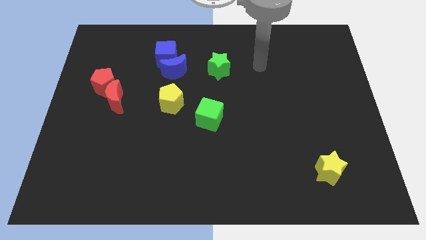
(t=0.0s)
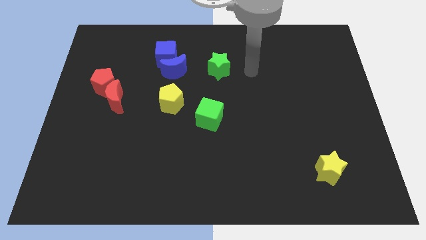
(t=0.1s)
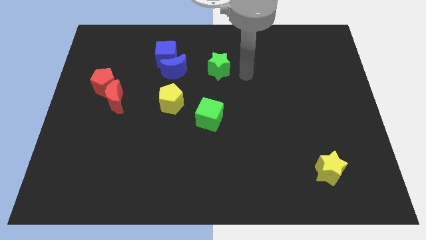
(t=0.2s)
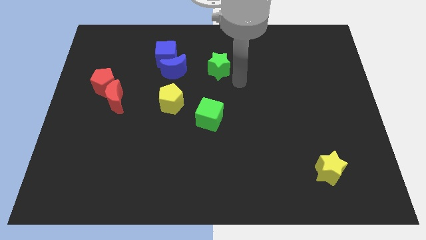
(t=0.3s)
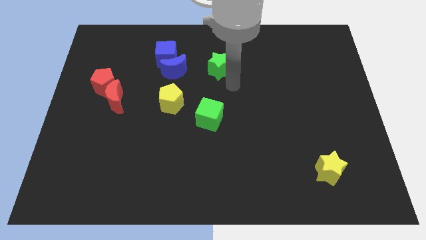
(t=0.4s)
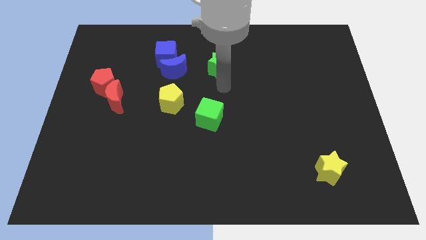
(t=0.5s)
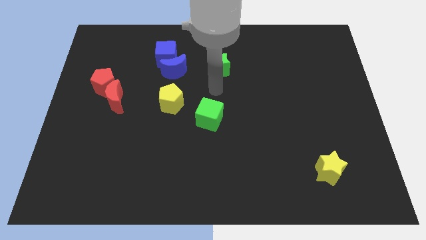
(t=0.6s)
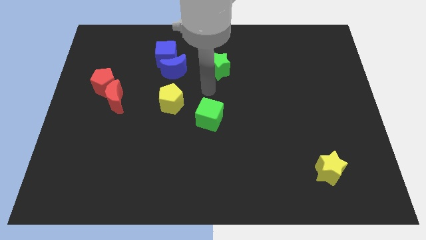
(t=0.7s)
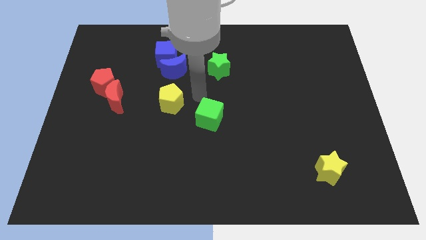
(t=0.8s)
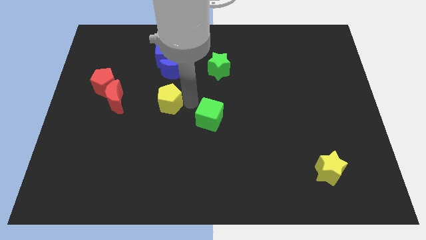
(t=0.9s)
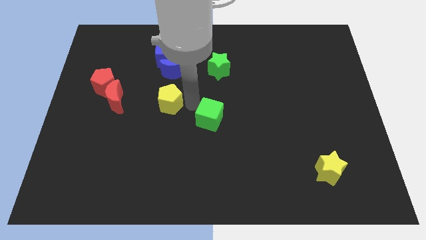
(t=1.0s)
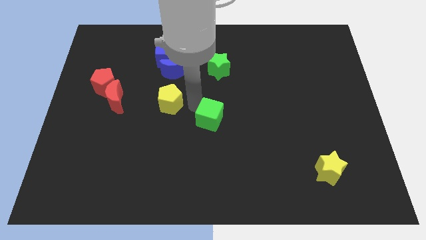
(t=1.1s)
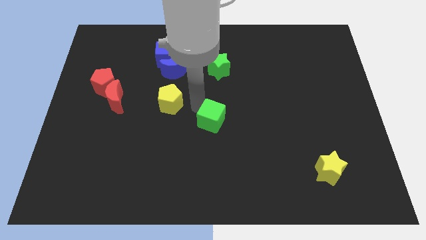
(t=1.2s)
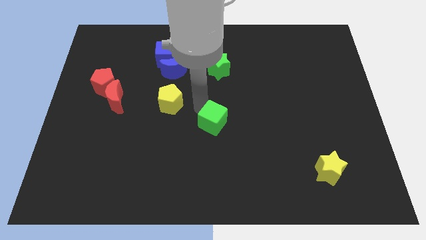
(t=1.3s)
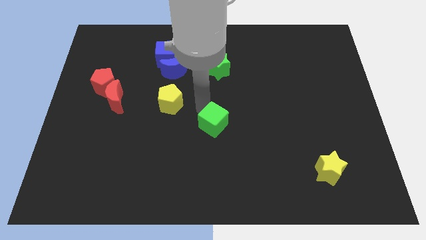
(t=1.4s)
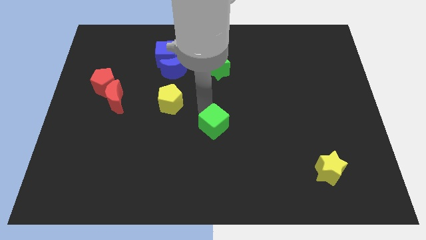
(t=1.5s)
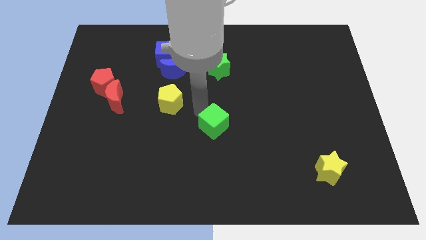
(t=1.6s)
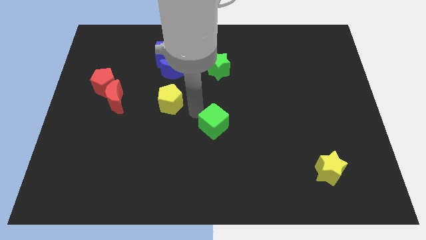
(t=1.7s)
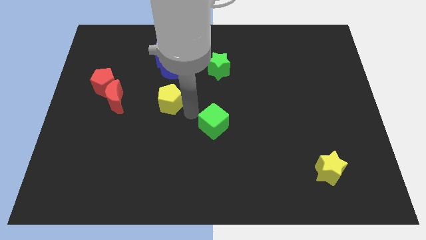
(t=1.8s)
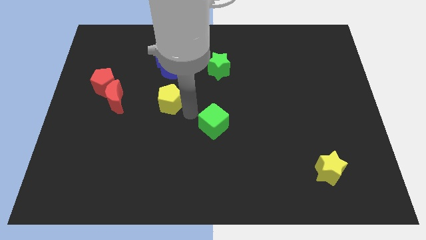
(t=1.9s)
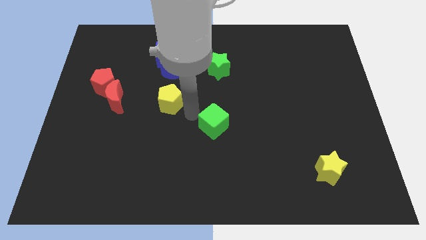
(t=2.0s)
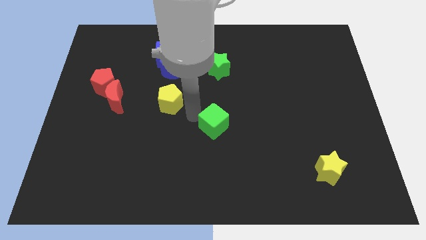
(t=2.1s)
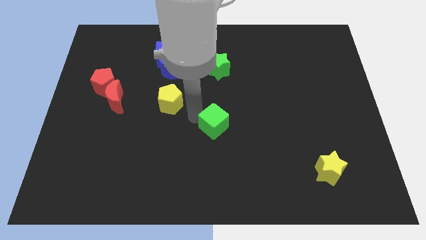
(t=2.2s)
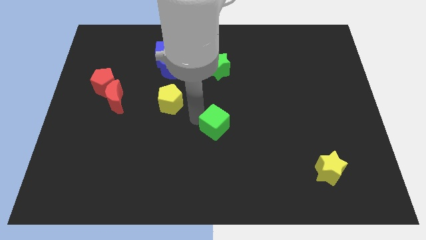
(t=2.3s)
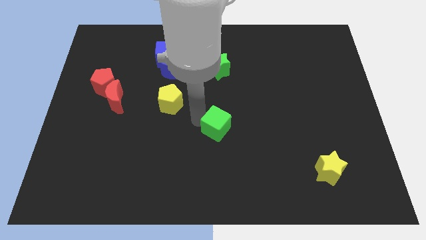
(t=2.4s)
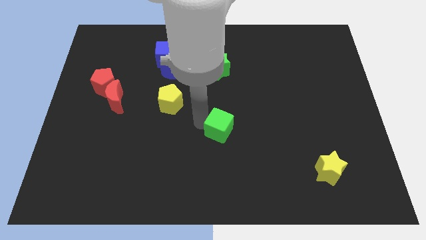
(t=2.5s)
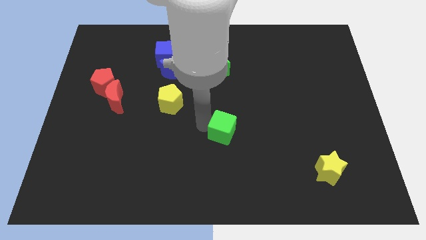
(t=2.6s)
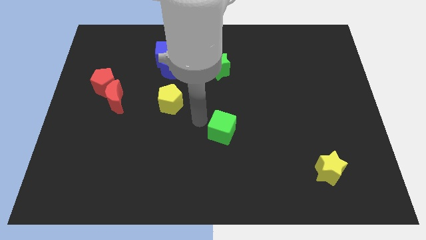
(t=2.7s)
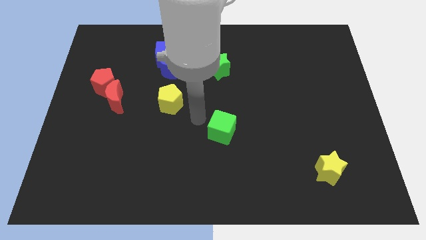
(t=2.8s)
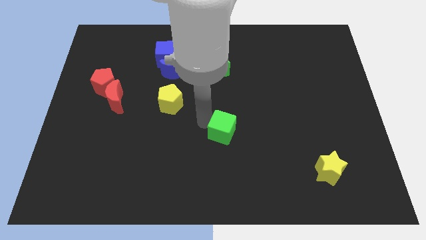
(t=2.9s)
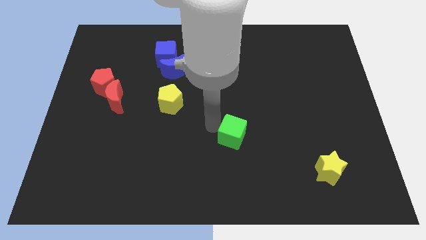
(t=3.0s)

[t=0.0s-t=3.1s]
slightly push the green cube downwards and then to the right

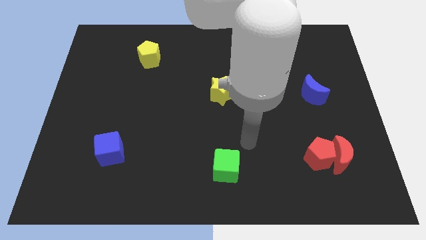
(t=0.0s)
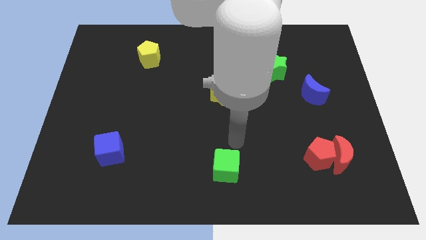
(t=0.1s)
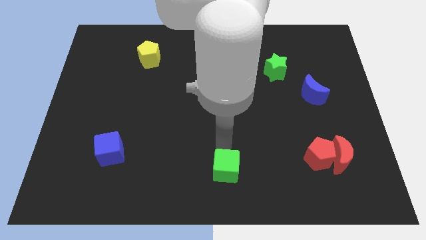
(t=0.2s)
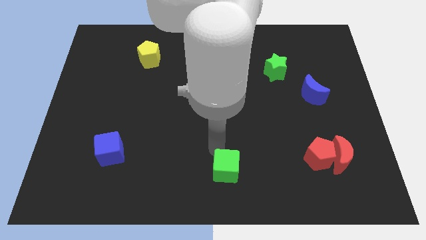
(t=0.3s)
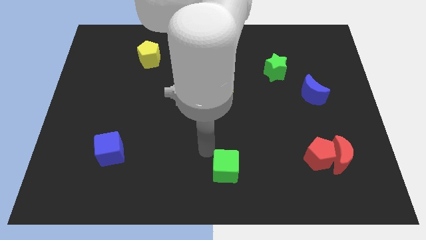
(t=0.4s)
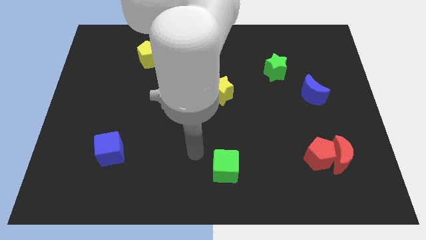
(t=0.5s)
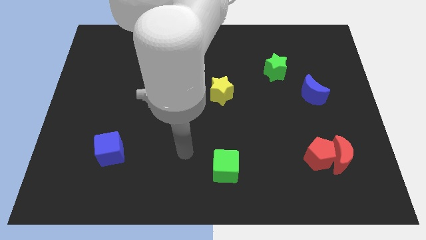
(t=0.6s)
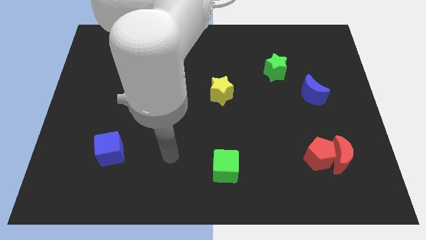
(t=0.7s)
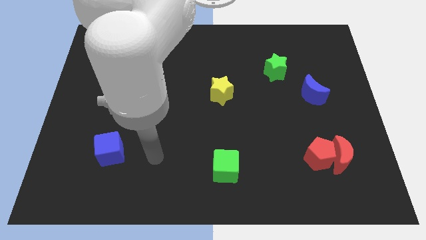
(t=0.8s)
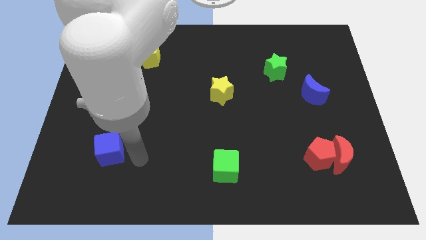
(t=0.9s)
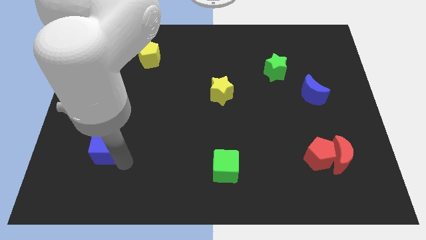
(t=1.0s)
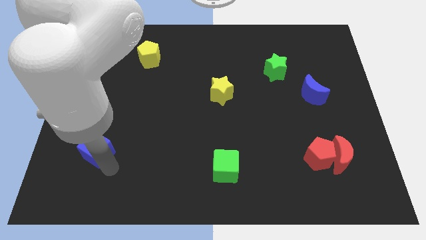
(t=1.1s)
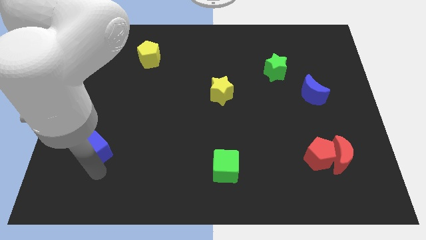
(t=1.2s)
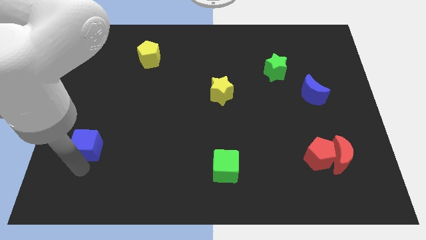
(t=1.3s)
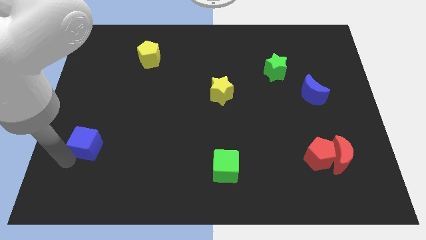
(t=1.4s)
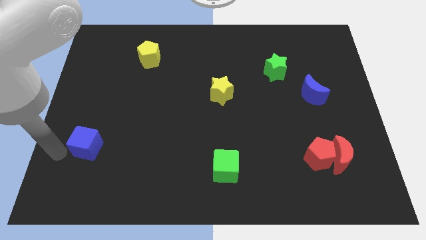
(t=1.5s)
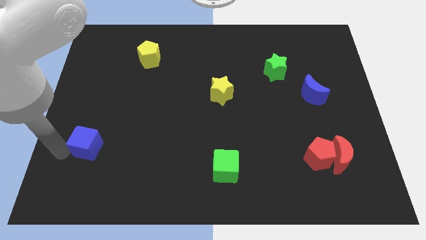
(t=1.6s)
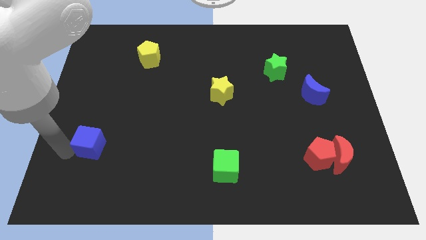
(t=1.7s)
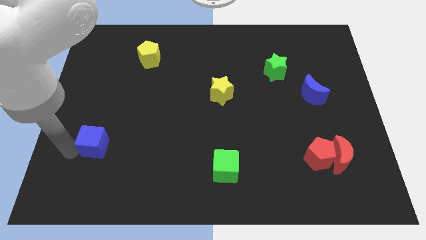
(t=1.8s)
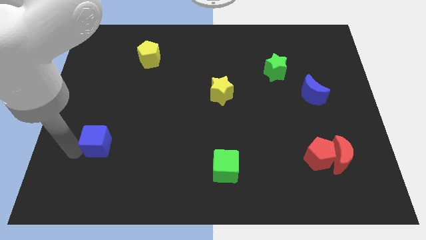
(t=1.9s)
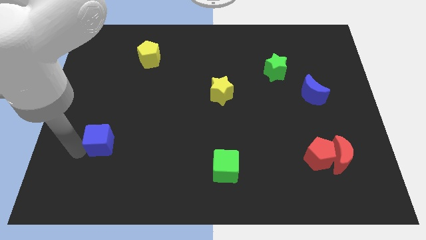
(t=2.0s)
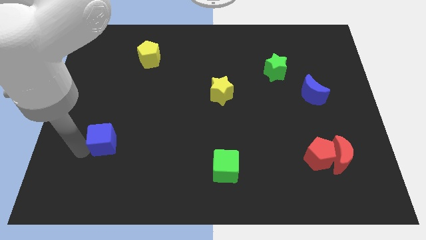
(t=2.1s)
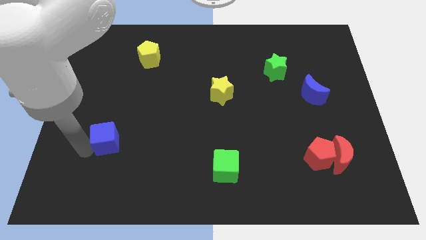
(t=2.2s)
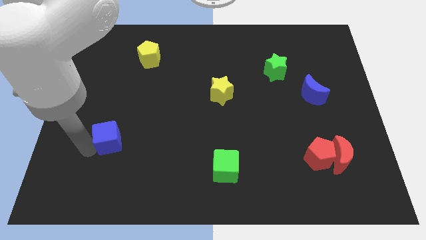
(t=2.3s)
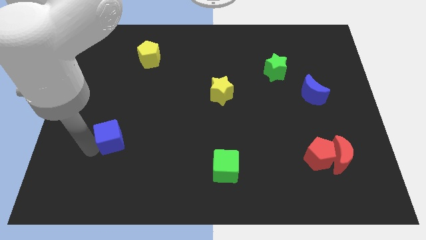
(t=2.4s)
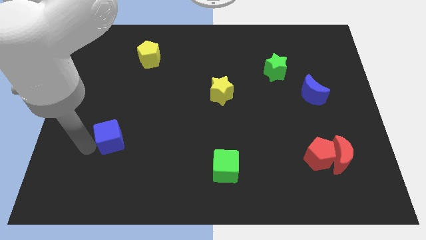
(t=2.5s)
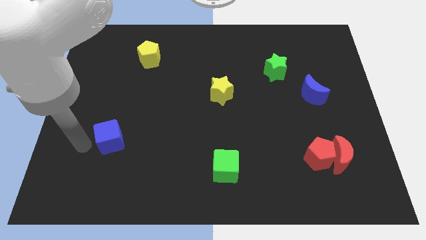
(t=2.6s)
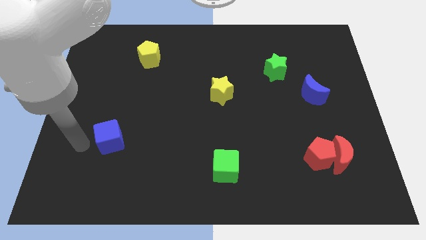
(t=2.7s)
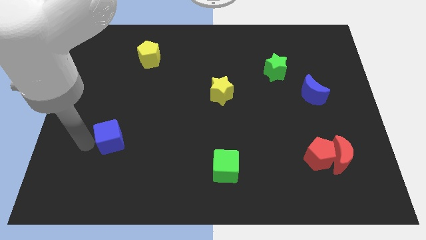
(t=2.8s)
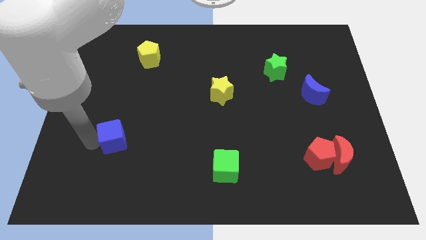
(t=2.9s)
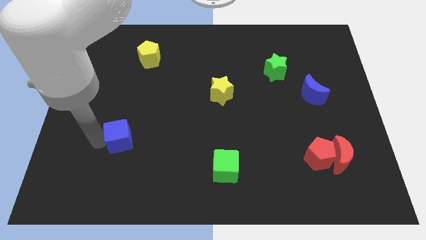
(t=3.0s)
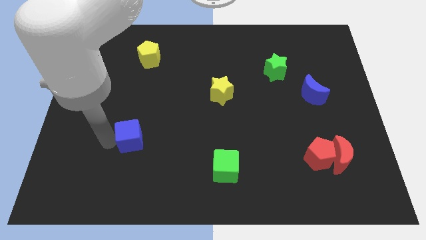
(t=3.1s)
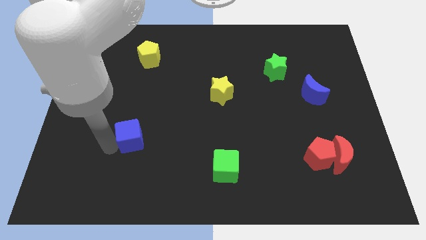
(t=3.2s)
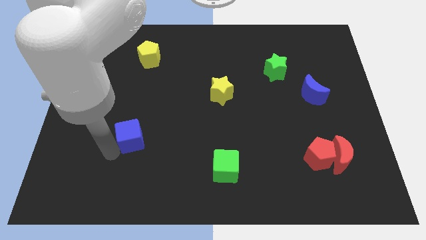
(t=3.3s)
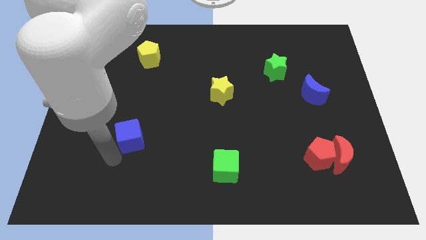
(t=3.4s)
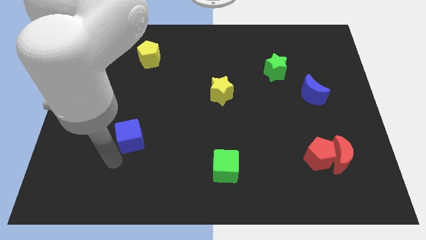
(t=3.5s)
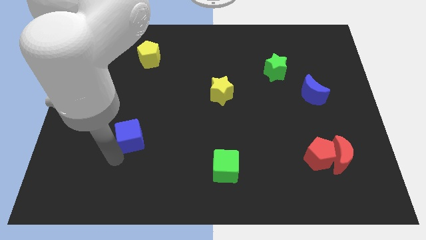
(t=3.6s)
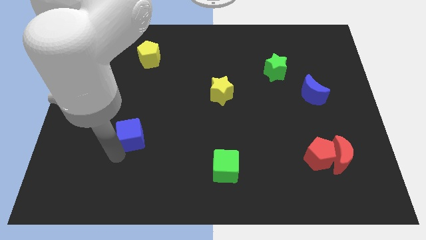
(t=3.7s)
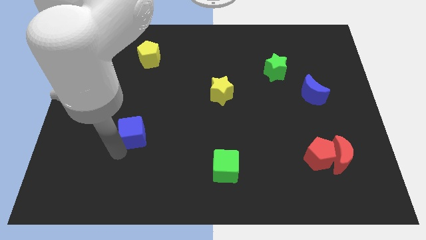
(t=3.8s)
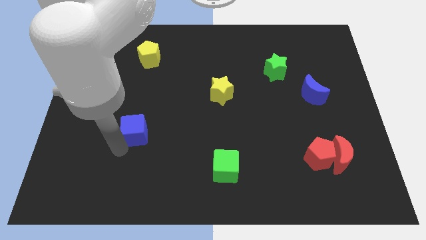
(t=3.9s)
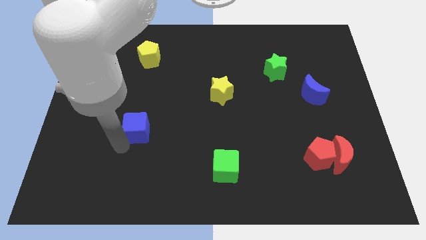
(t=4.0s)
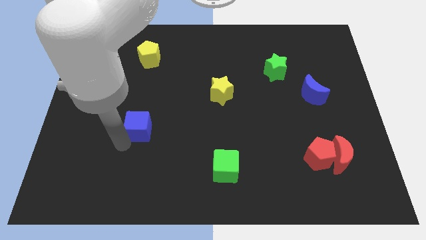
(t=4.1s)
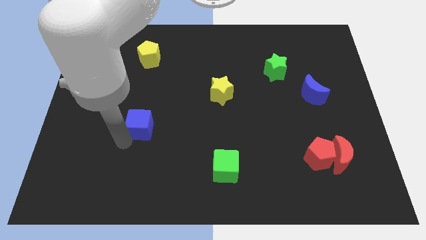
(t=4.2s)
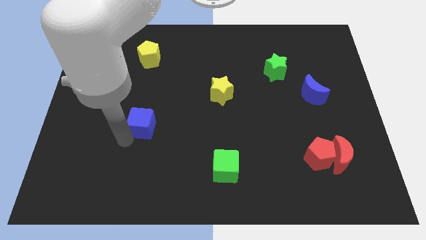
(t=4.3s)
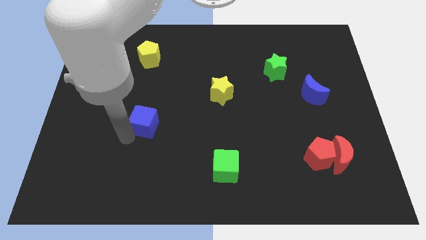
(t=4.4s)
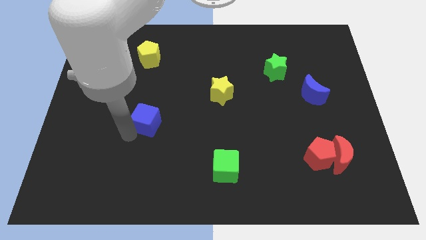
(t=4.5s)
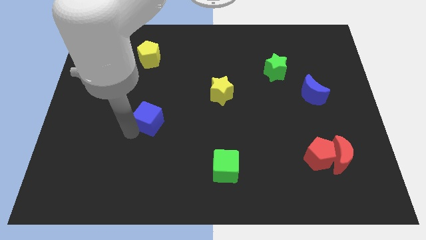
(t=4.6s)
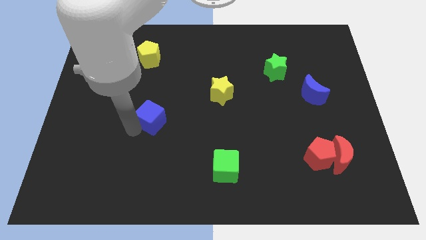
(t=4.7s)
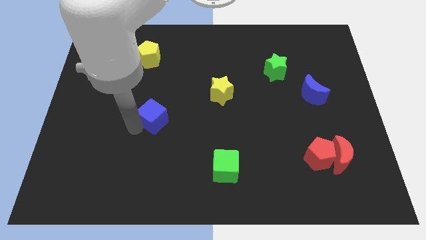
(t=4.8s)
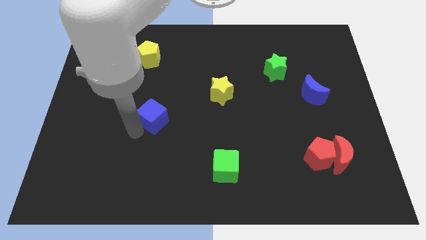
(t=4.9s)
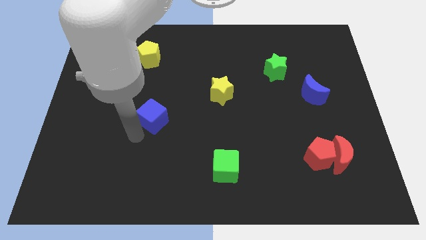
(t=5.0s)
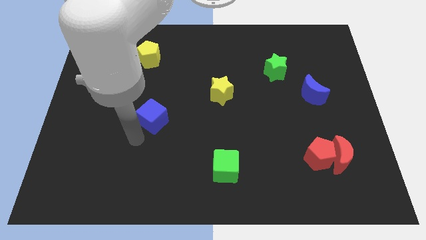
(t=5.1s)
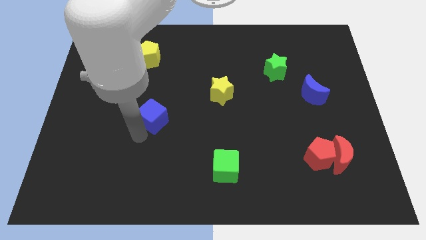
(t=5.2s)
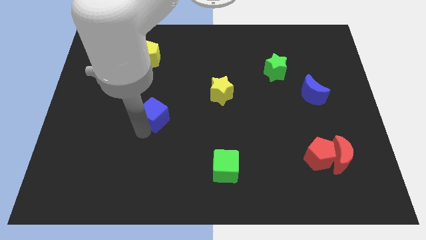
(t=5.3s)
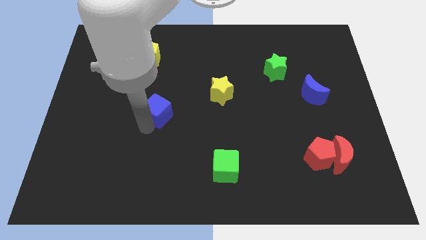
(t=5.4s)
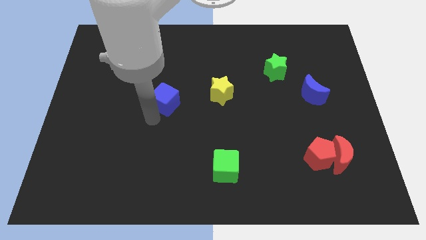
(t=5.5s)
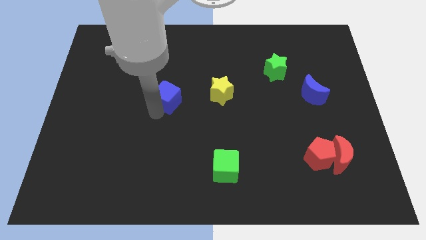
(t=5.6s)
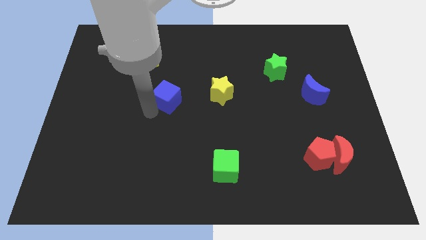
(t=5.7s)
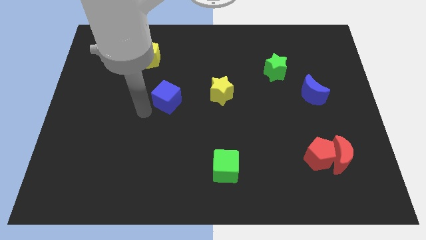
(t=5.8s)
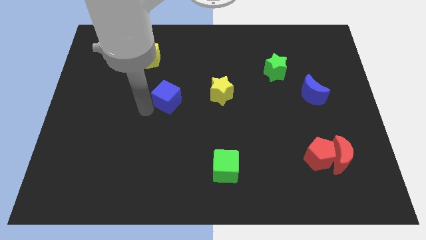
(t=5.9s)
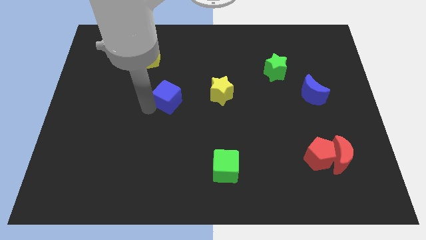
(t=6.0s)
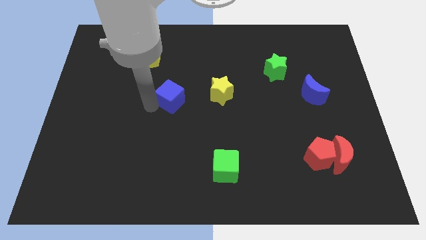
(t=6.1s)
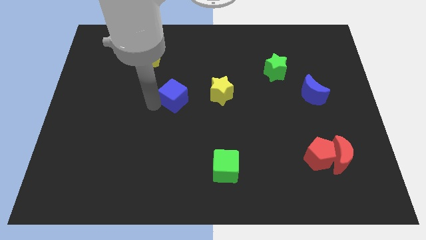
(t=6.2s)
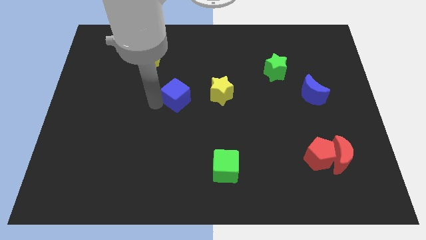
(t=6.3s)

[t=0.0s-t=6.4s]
push the blue cube up and then to the right
